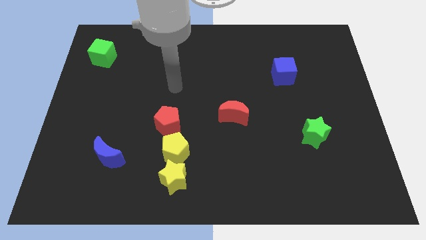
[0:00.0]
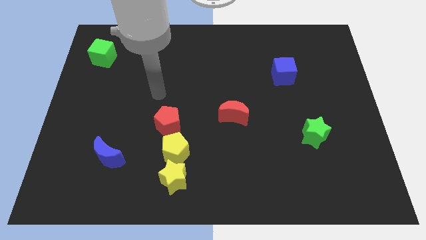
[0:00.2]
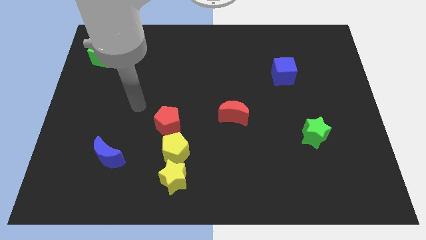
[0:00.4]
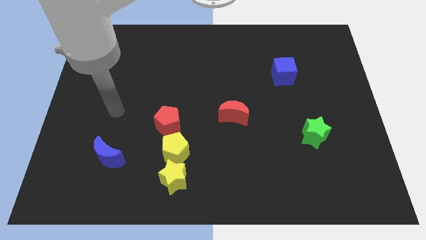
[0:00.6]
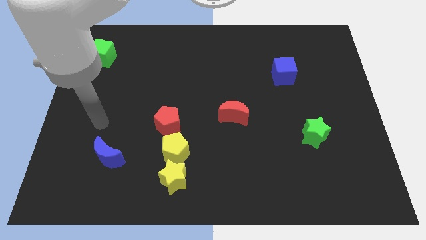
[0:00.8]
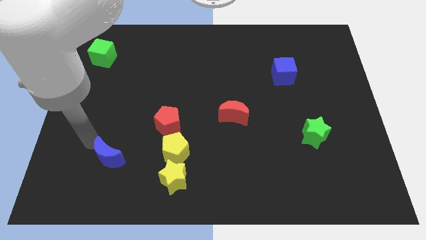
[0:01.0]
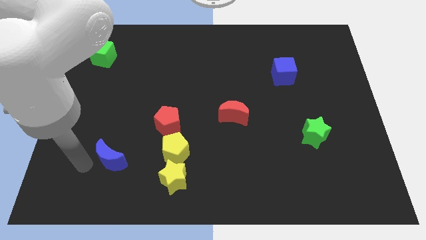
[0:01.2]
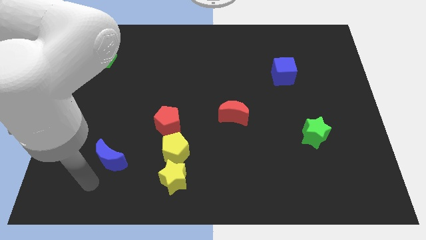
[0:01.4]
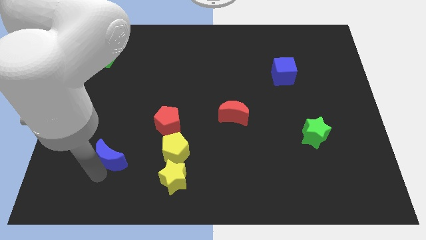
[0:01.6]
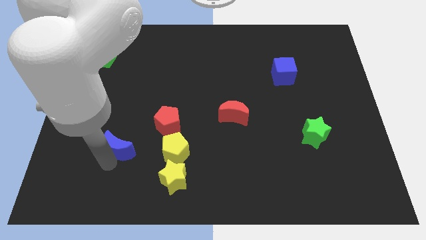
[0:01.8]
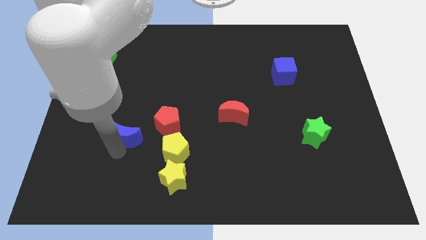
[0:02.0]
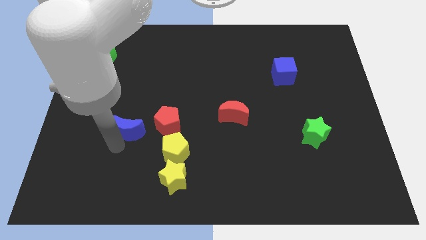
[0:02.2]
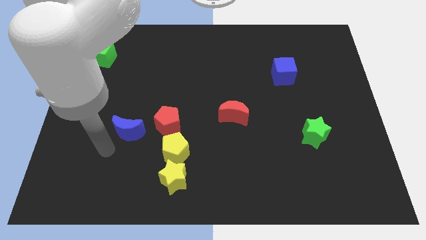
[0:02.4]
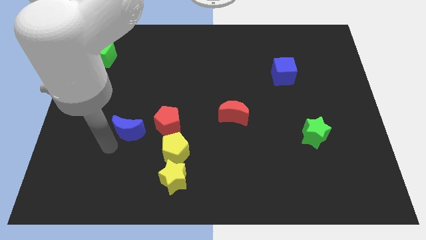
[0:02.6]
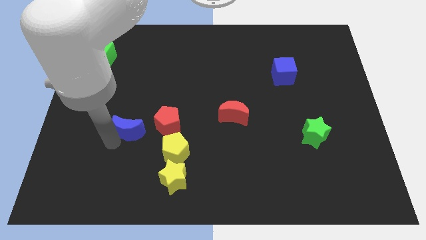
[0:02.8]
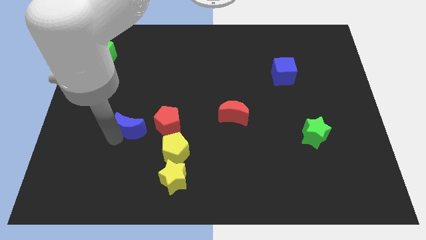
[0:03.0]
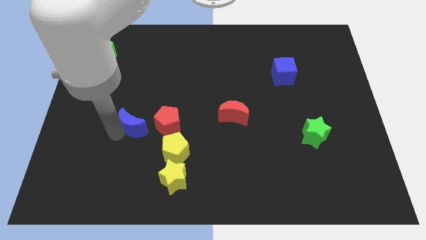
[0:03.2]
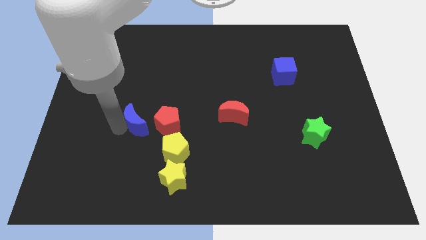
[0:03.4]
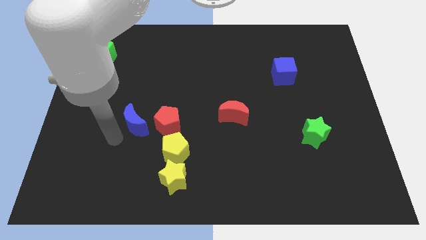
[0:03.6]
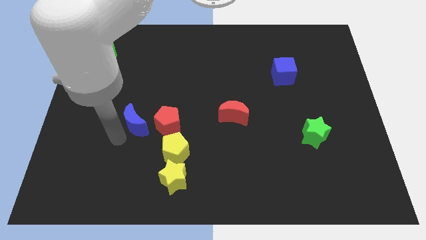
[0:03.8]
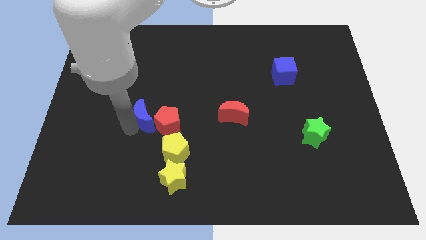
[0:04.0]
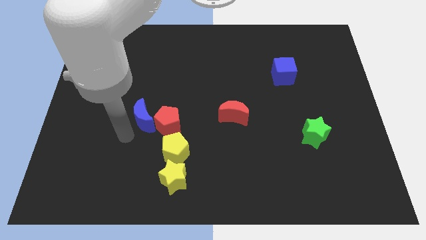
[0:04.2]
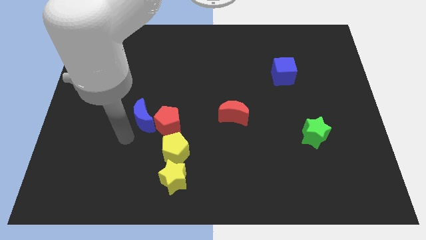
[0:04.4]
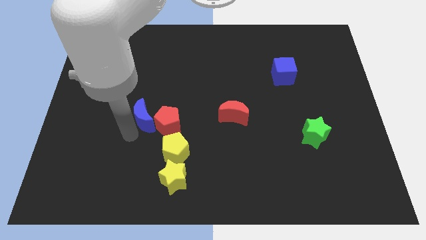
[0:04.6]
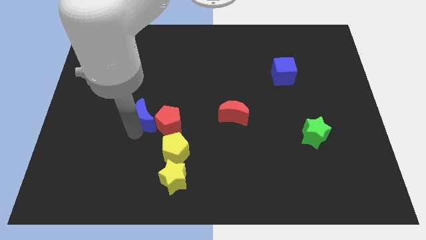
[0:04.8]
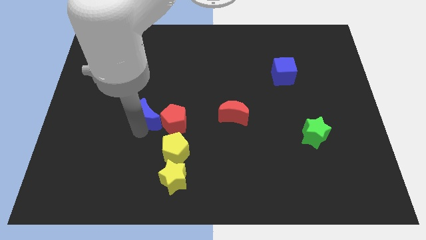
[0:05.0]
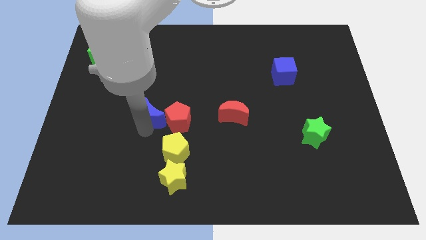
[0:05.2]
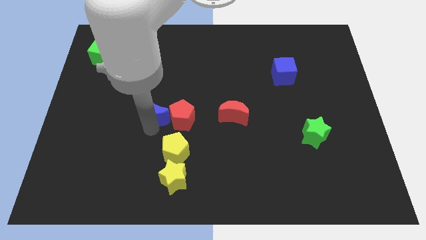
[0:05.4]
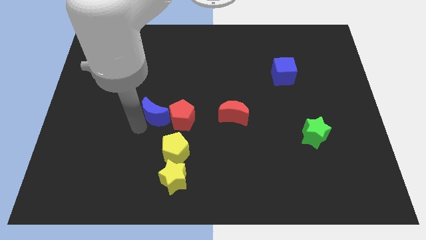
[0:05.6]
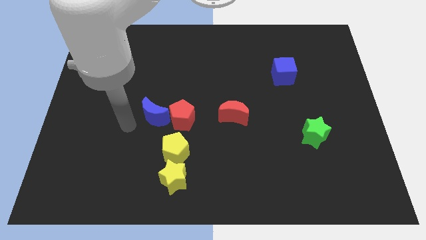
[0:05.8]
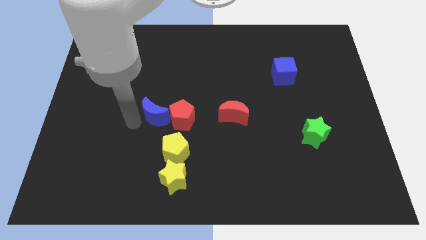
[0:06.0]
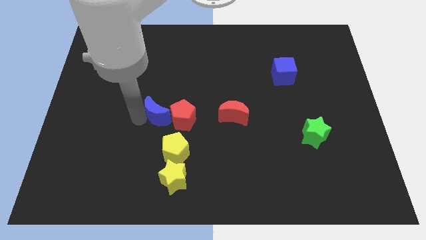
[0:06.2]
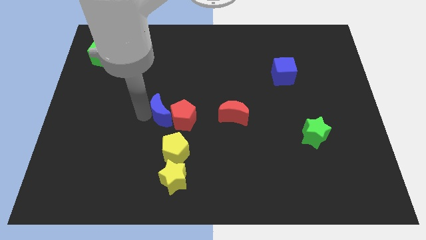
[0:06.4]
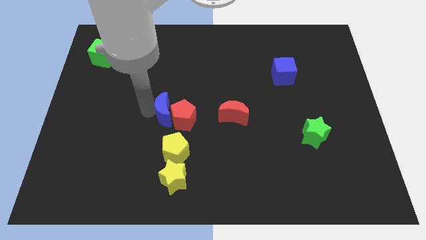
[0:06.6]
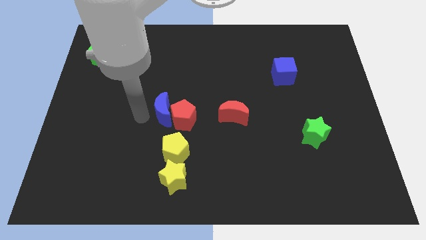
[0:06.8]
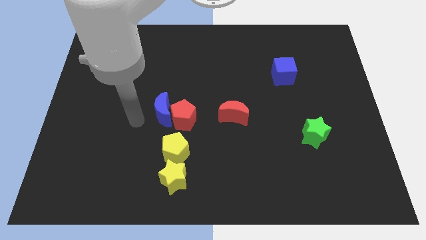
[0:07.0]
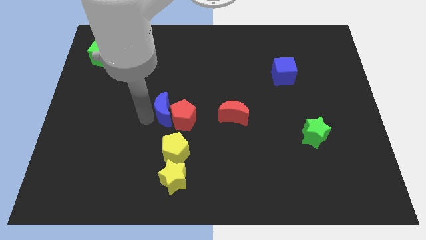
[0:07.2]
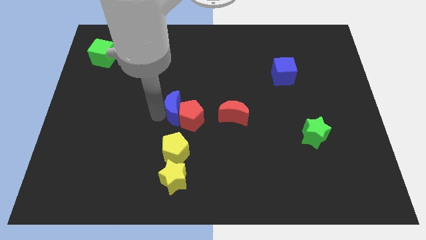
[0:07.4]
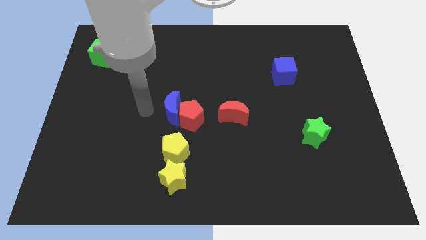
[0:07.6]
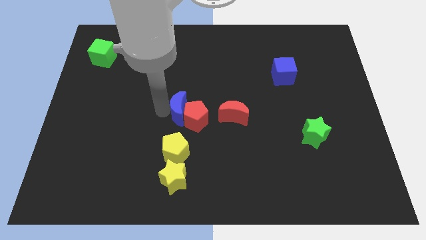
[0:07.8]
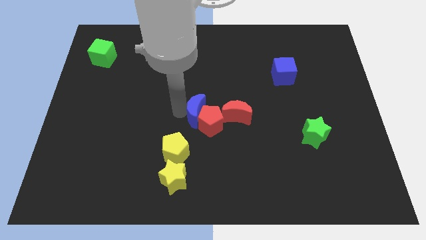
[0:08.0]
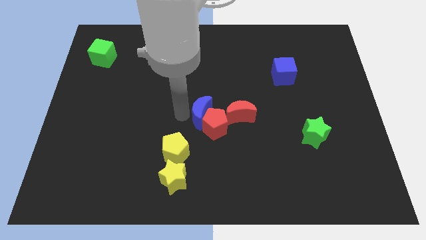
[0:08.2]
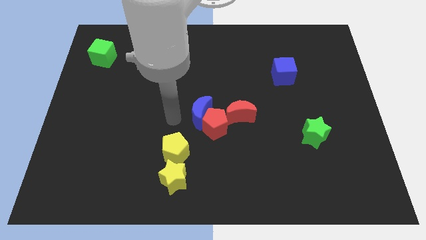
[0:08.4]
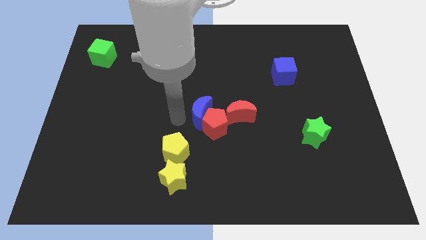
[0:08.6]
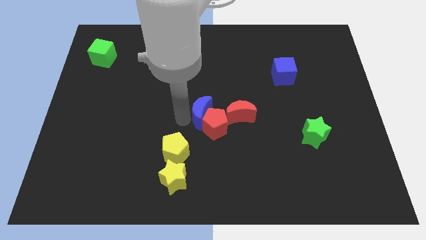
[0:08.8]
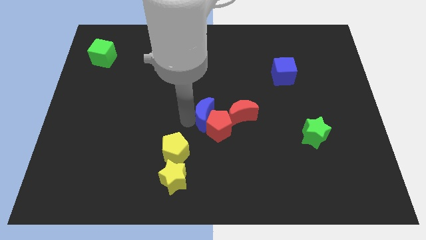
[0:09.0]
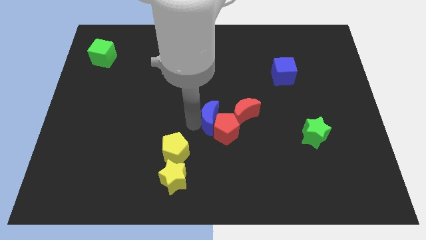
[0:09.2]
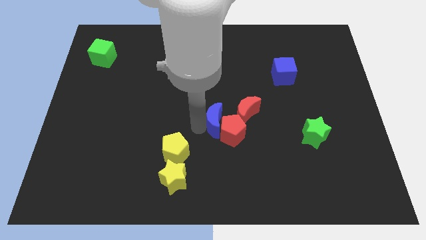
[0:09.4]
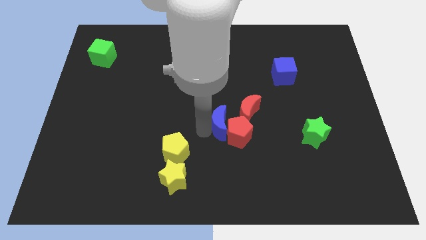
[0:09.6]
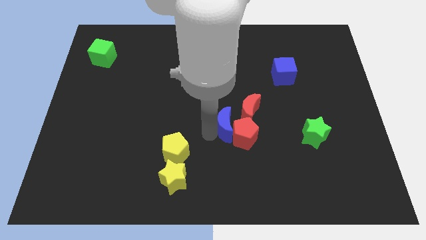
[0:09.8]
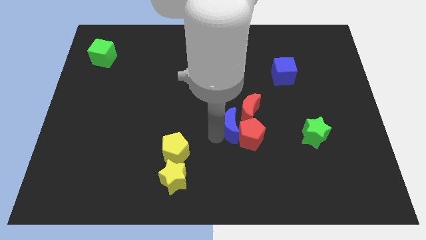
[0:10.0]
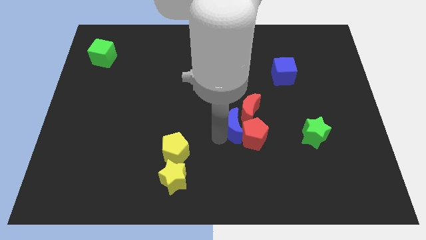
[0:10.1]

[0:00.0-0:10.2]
move the blue moon to the red moon

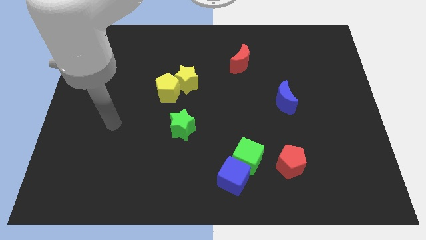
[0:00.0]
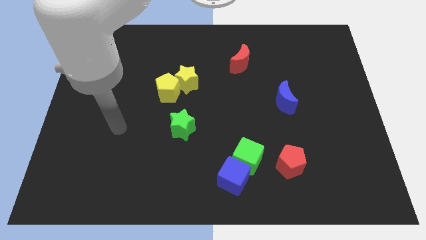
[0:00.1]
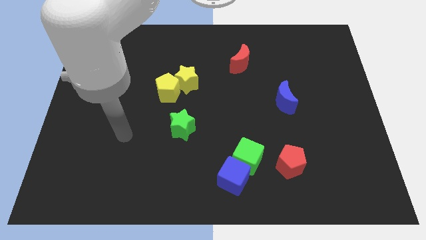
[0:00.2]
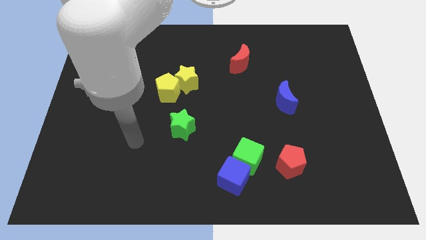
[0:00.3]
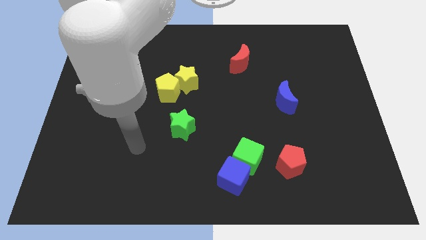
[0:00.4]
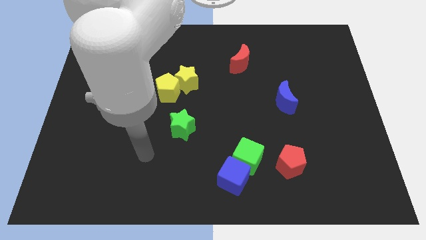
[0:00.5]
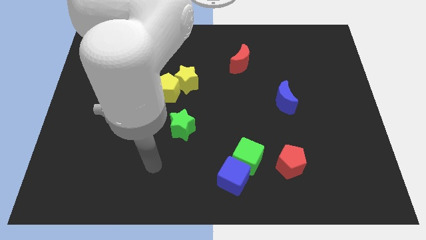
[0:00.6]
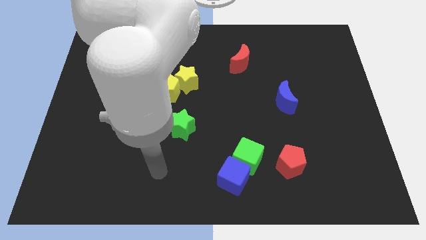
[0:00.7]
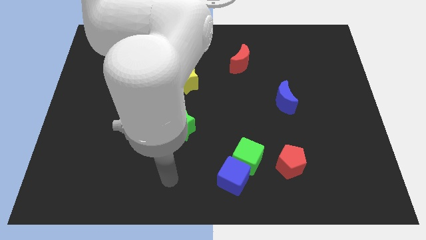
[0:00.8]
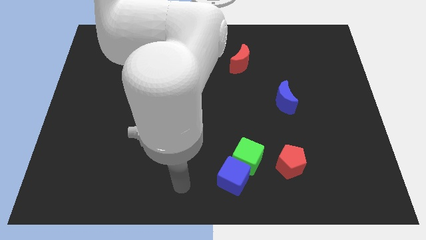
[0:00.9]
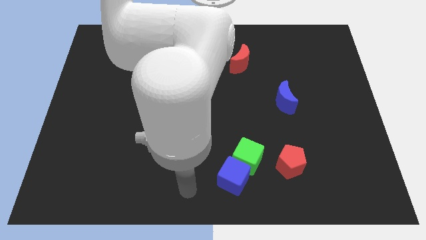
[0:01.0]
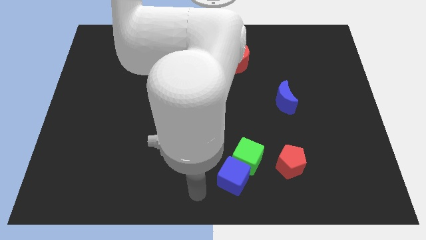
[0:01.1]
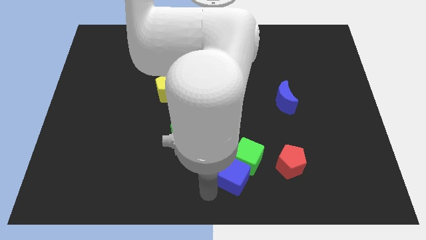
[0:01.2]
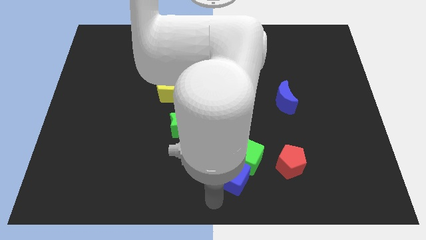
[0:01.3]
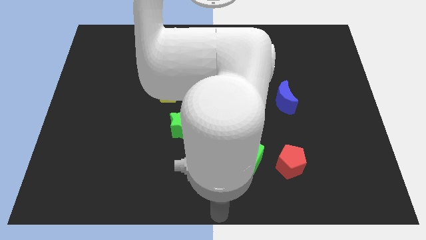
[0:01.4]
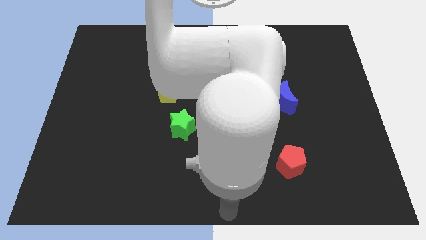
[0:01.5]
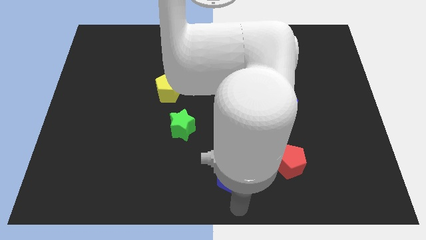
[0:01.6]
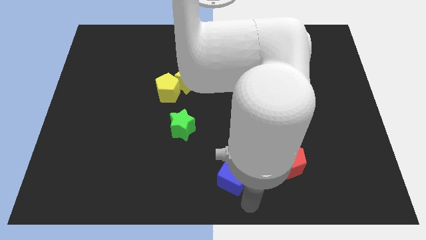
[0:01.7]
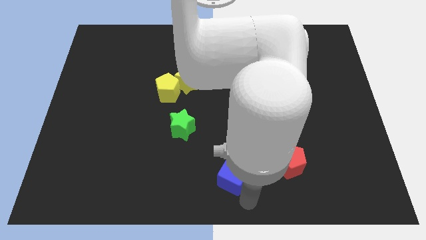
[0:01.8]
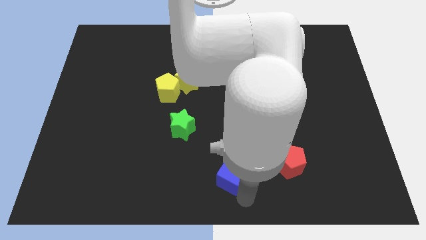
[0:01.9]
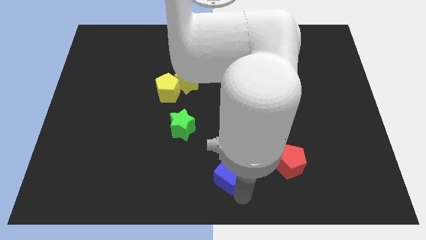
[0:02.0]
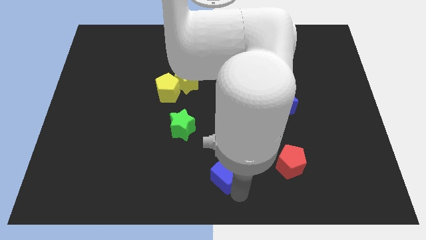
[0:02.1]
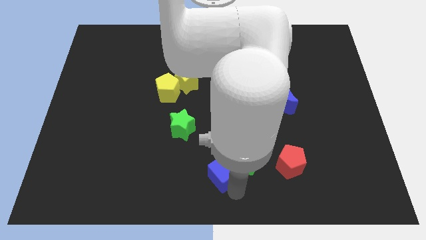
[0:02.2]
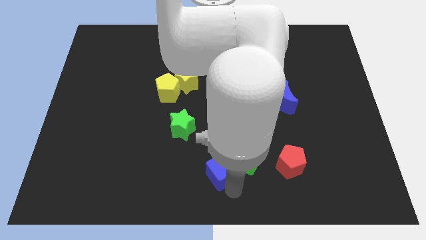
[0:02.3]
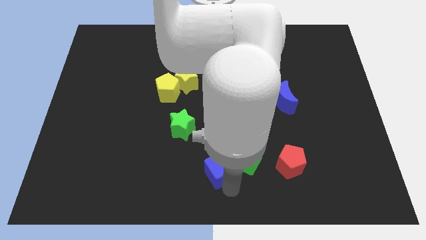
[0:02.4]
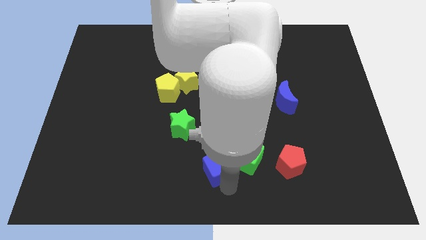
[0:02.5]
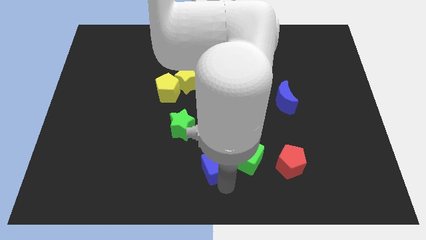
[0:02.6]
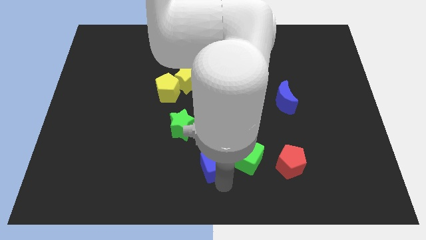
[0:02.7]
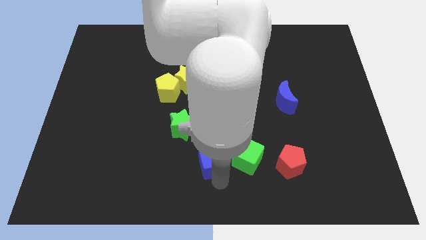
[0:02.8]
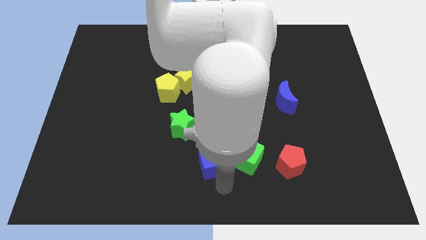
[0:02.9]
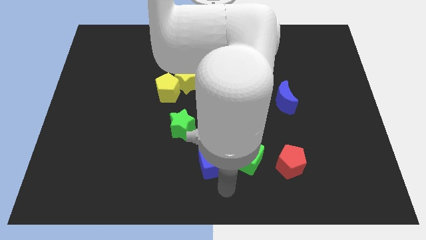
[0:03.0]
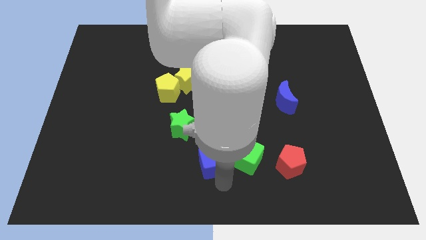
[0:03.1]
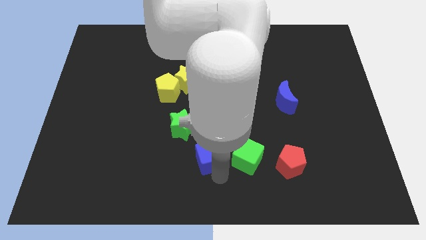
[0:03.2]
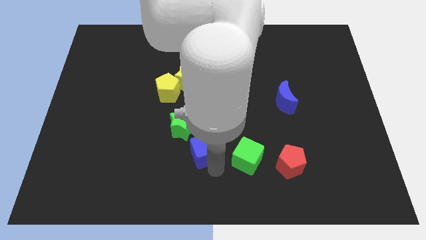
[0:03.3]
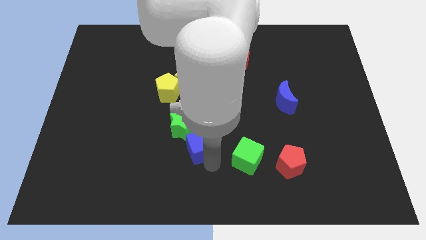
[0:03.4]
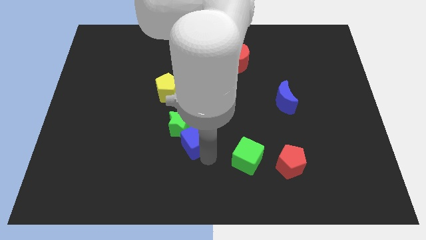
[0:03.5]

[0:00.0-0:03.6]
move the blue cube next to the green star
